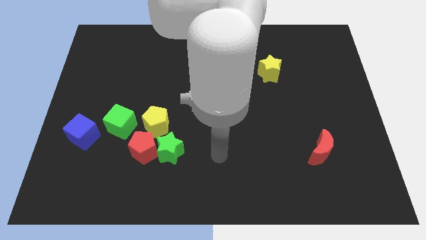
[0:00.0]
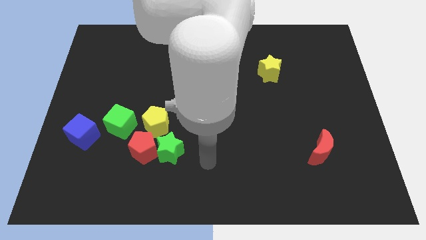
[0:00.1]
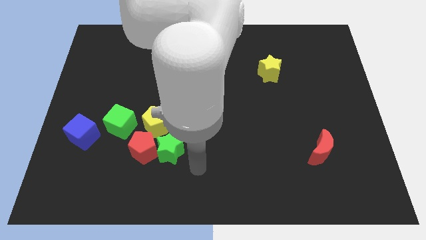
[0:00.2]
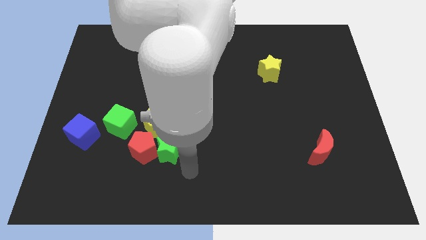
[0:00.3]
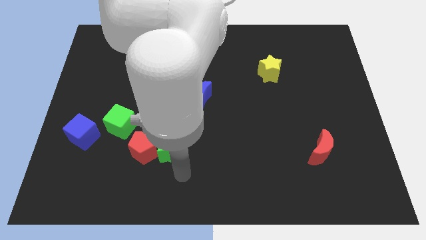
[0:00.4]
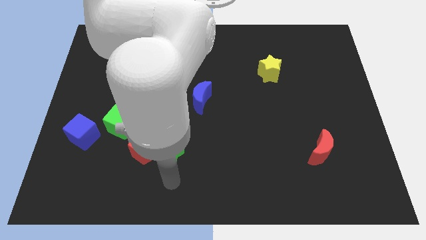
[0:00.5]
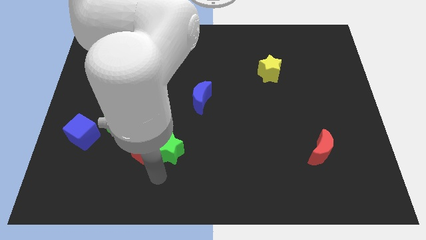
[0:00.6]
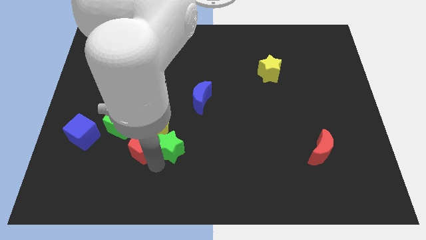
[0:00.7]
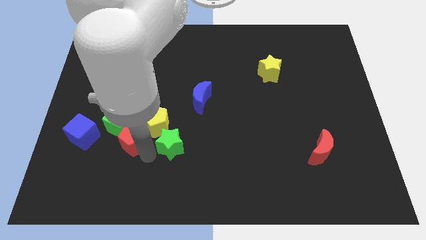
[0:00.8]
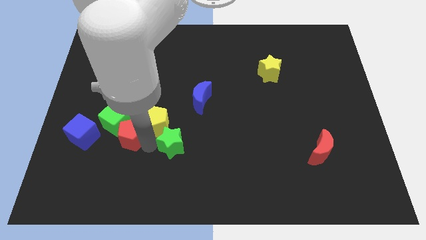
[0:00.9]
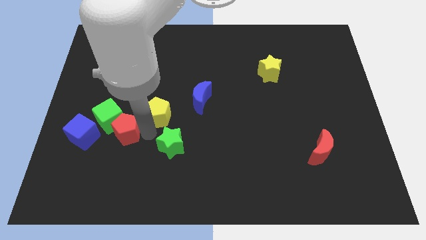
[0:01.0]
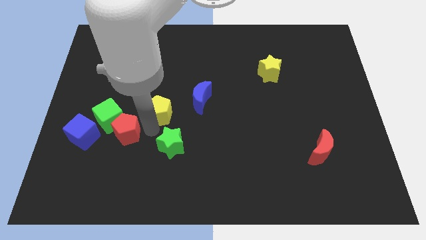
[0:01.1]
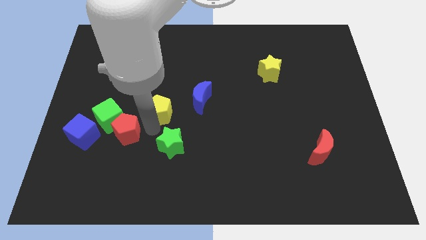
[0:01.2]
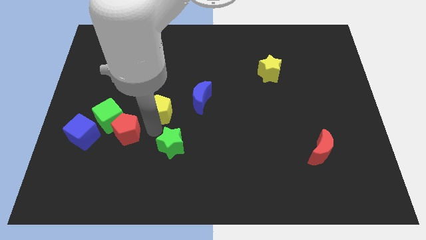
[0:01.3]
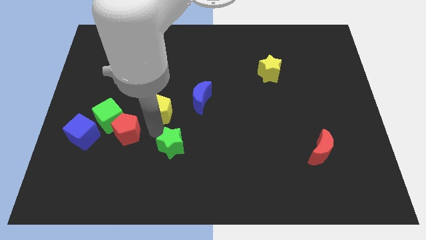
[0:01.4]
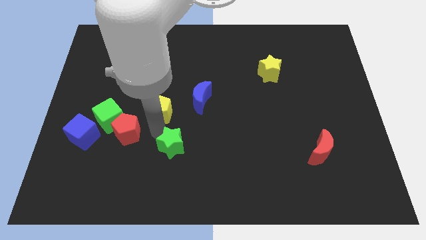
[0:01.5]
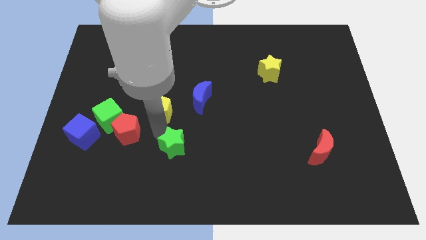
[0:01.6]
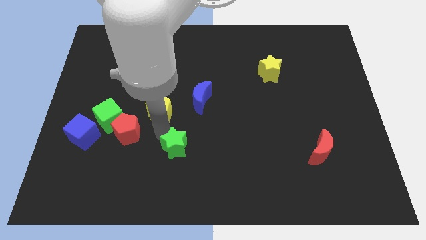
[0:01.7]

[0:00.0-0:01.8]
separate the green star from the red pentagon and yellow pentagon

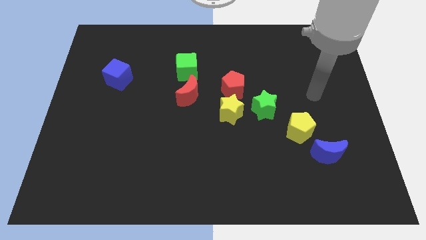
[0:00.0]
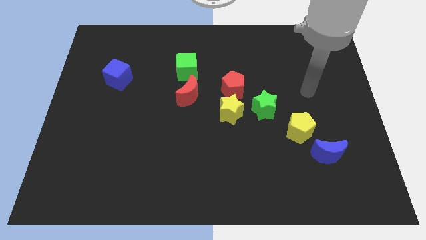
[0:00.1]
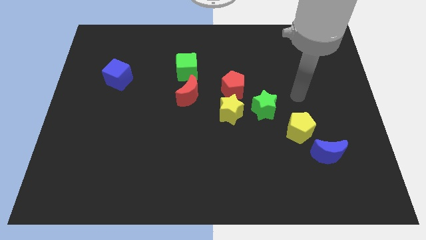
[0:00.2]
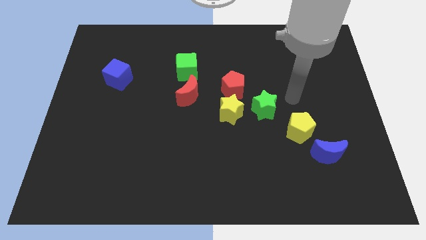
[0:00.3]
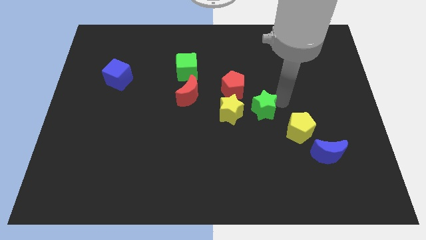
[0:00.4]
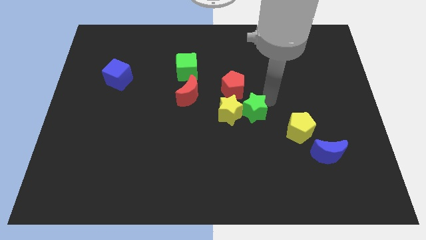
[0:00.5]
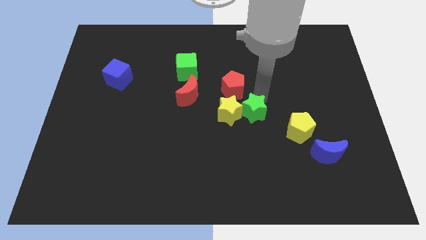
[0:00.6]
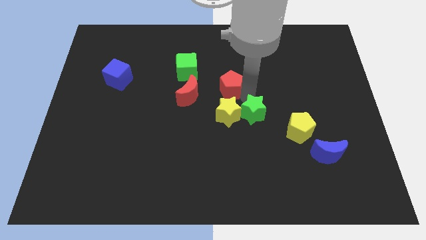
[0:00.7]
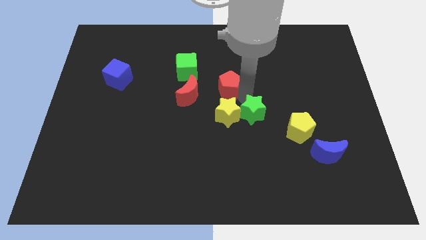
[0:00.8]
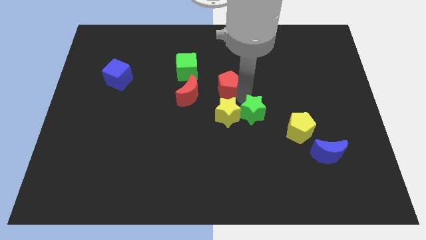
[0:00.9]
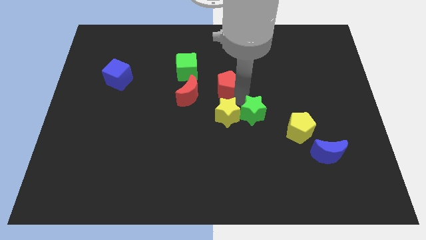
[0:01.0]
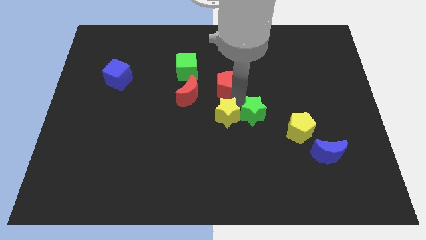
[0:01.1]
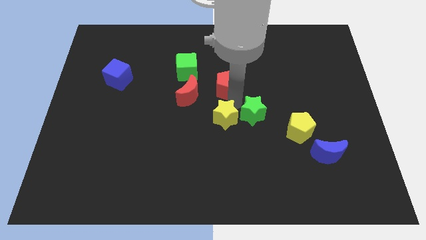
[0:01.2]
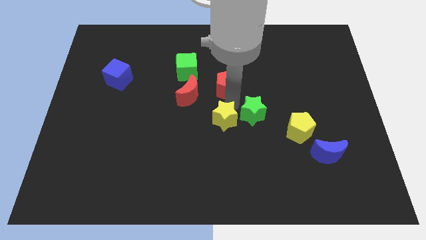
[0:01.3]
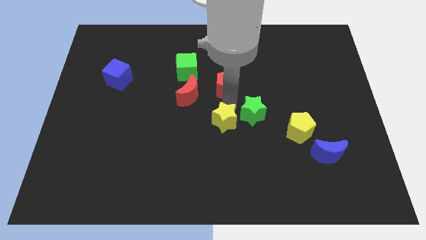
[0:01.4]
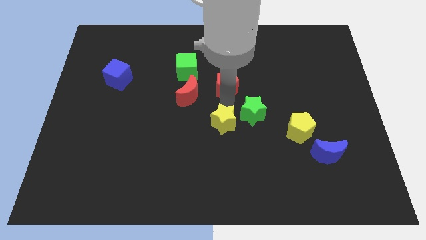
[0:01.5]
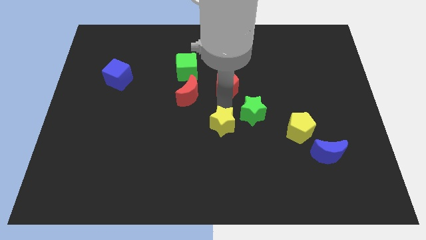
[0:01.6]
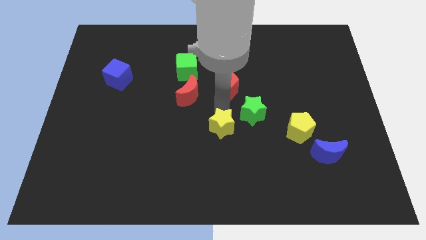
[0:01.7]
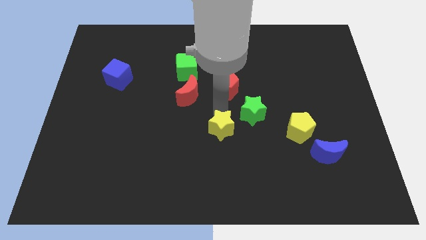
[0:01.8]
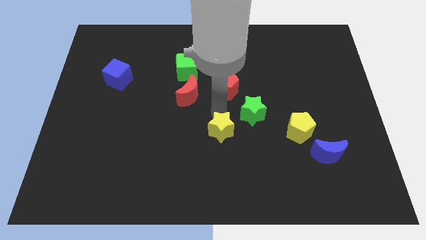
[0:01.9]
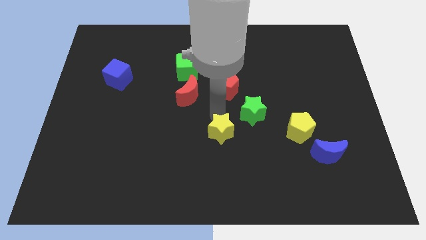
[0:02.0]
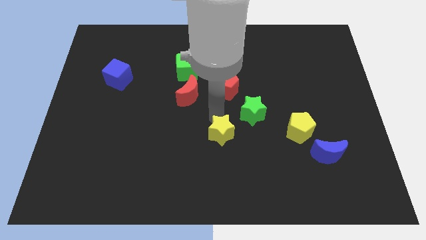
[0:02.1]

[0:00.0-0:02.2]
move the yellow star away from the red pentagon and green star

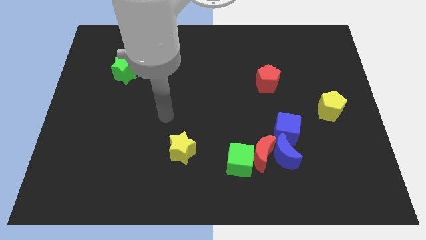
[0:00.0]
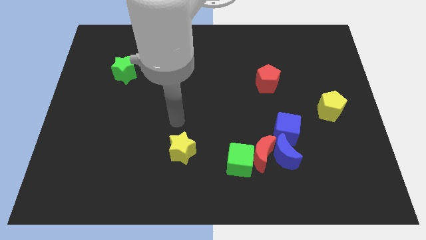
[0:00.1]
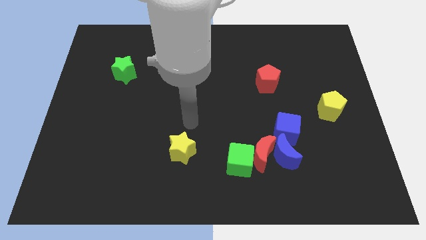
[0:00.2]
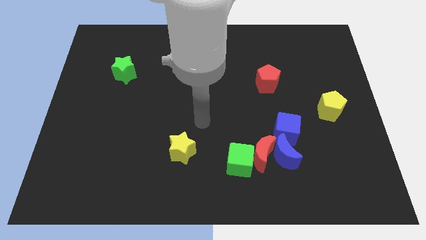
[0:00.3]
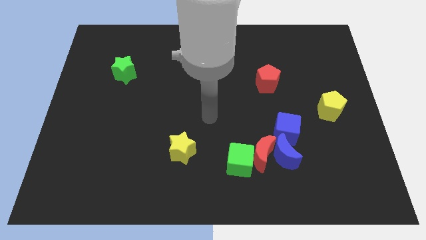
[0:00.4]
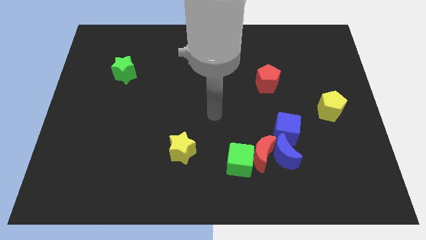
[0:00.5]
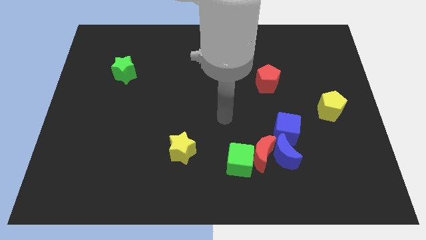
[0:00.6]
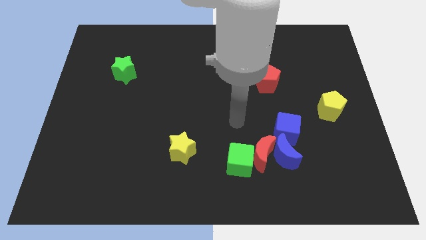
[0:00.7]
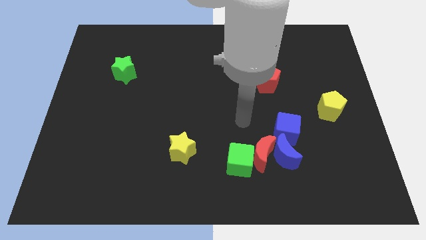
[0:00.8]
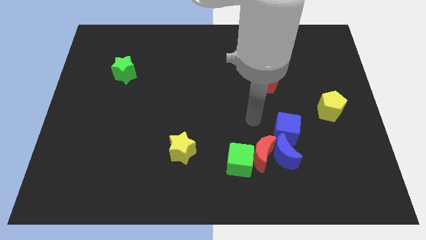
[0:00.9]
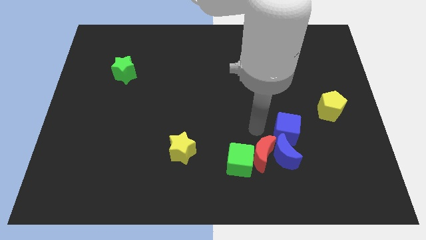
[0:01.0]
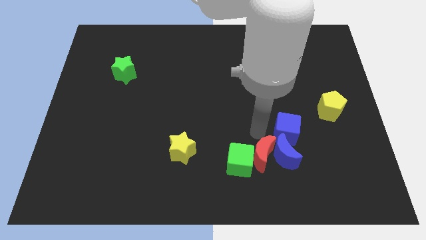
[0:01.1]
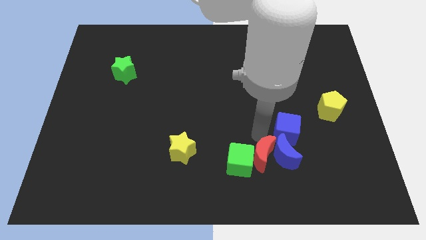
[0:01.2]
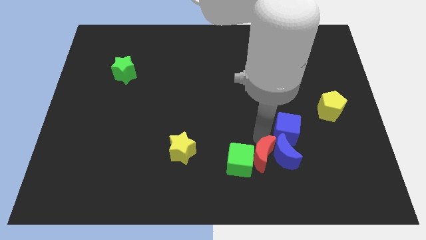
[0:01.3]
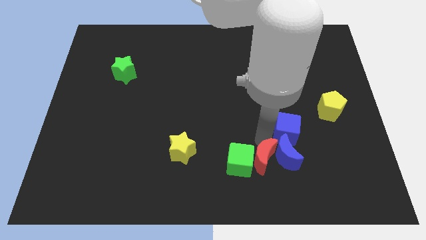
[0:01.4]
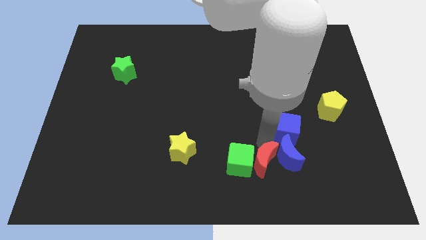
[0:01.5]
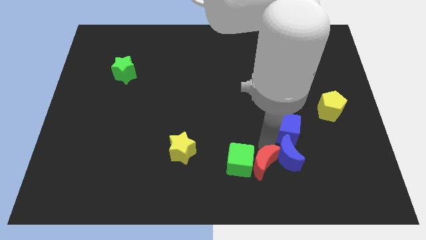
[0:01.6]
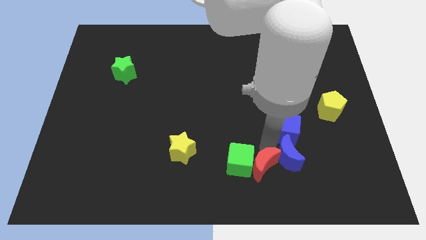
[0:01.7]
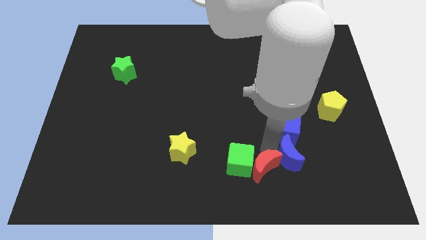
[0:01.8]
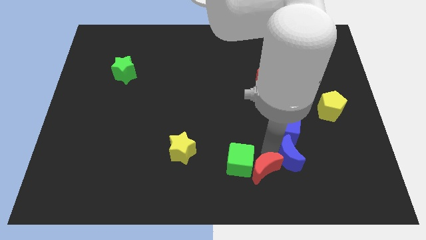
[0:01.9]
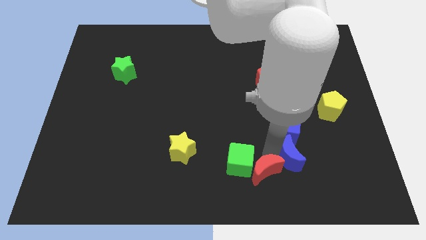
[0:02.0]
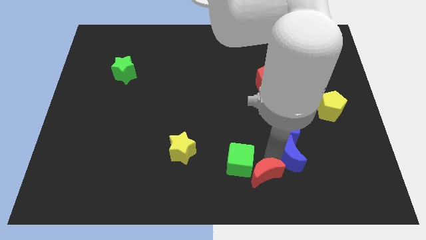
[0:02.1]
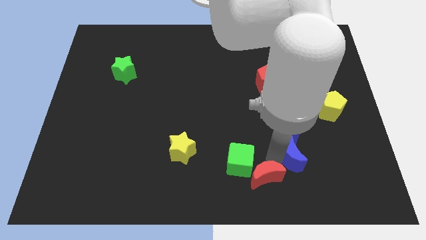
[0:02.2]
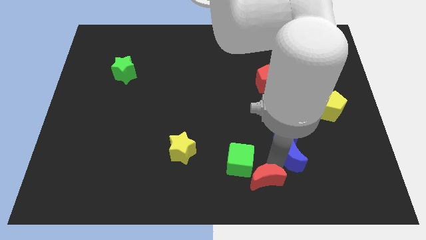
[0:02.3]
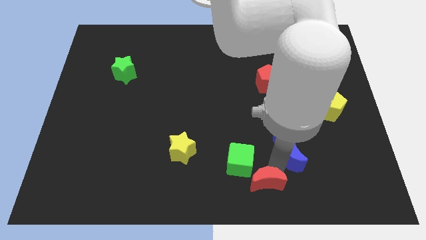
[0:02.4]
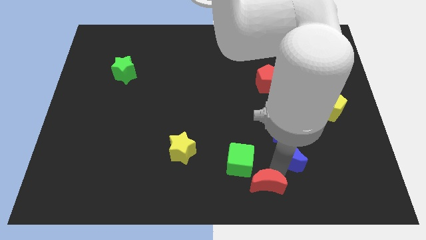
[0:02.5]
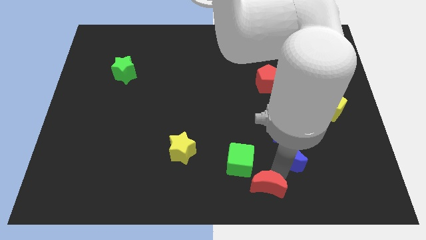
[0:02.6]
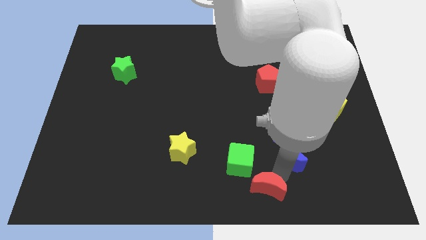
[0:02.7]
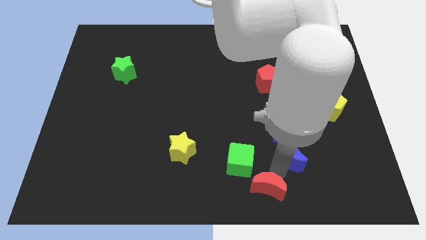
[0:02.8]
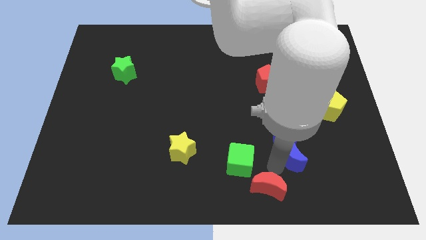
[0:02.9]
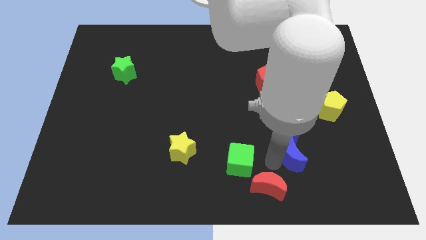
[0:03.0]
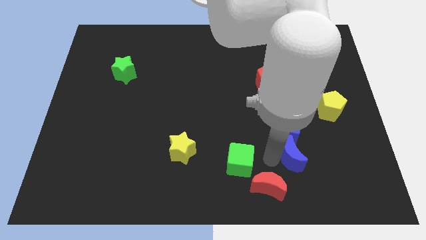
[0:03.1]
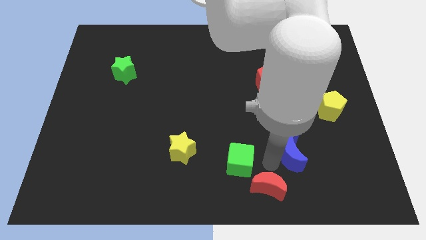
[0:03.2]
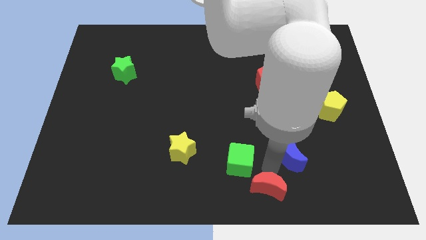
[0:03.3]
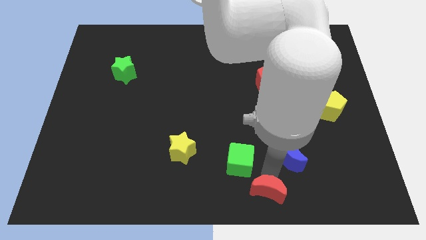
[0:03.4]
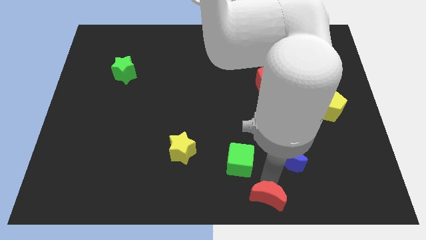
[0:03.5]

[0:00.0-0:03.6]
pull the red moon apart from the clump

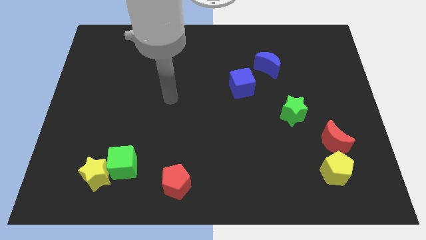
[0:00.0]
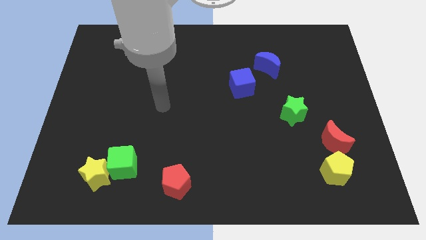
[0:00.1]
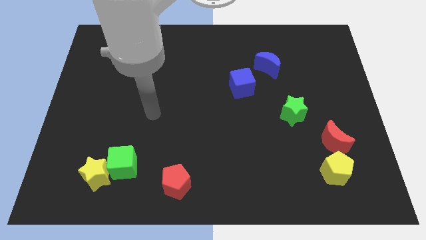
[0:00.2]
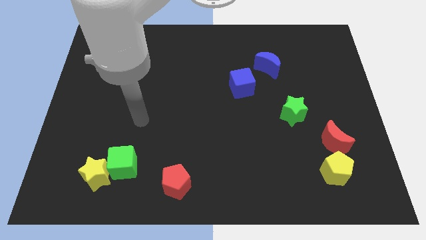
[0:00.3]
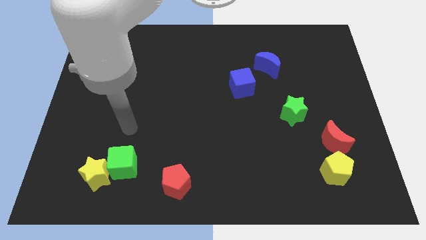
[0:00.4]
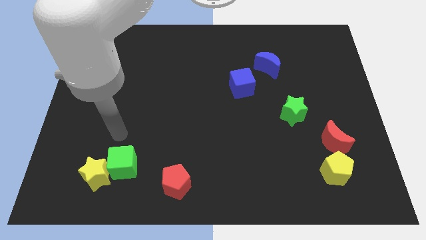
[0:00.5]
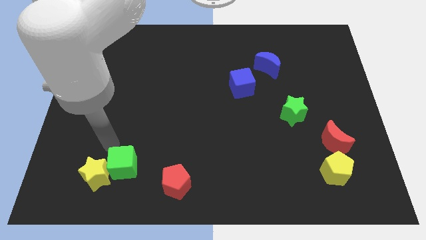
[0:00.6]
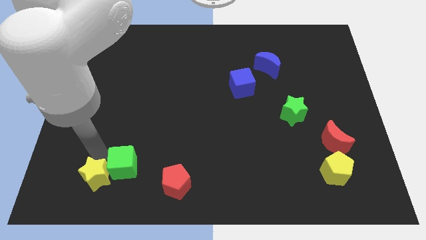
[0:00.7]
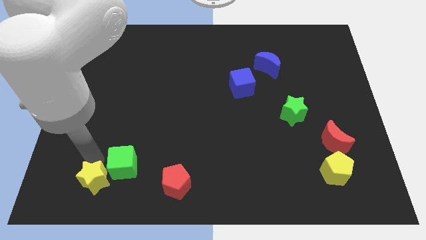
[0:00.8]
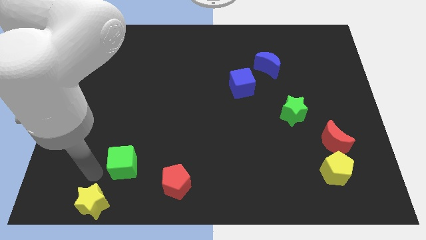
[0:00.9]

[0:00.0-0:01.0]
move the green cube away from the yellow star

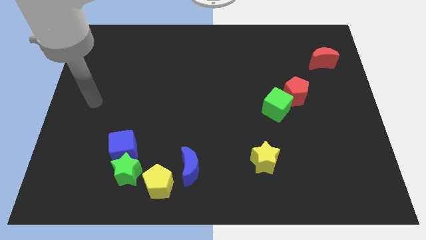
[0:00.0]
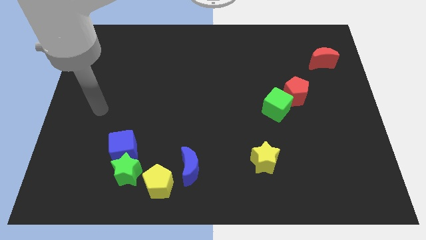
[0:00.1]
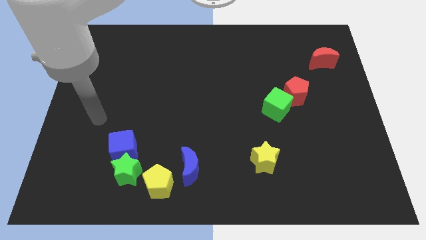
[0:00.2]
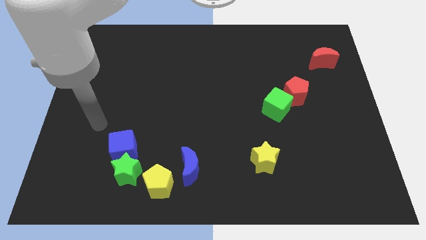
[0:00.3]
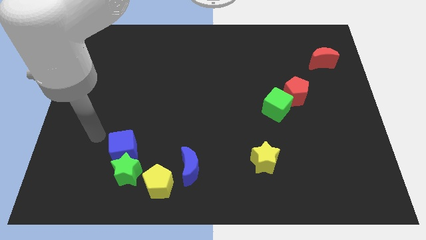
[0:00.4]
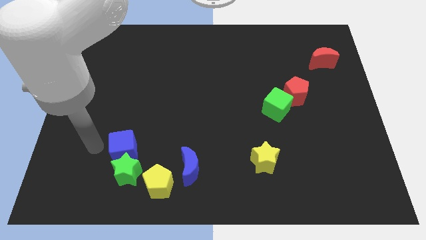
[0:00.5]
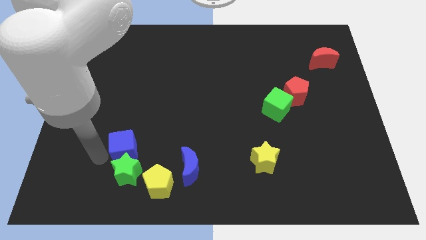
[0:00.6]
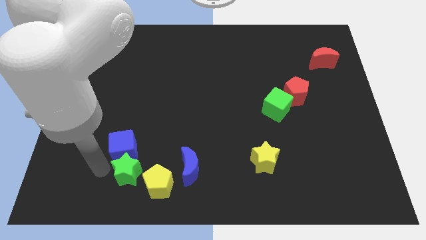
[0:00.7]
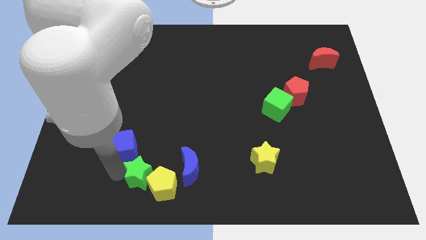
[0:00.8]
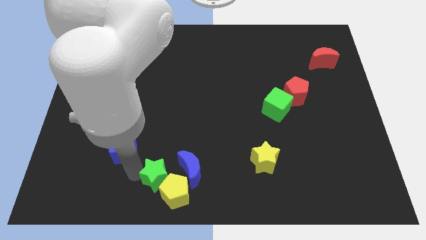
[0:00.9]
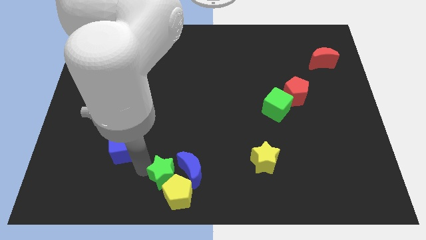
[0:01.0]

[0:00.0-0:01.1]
move the blue cube away from the green star
